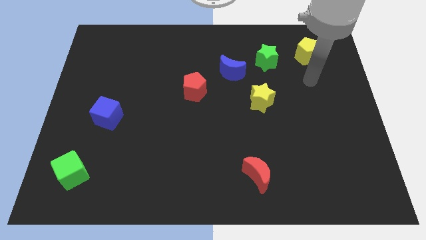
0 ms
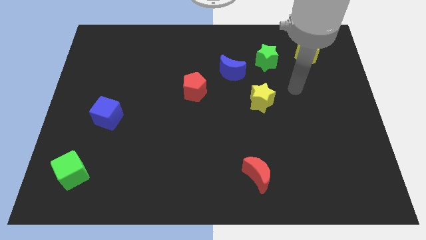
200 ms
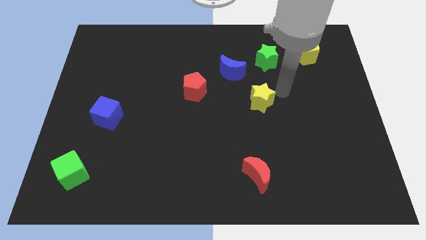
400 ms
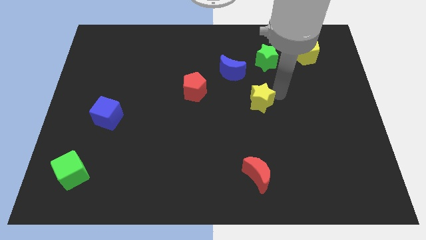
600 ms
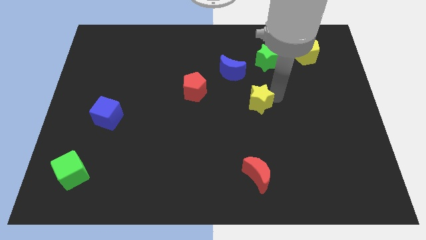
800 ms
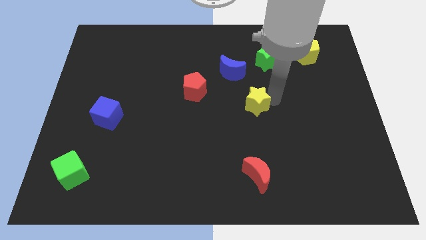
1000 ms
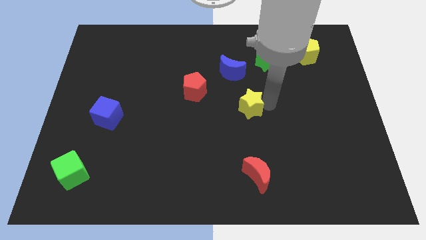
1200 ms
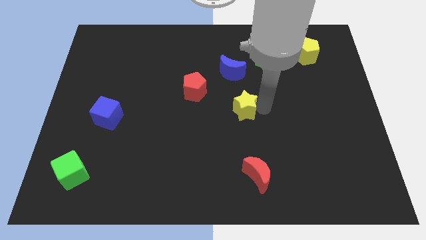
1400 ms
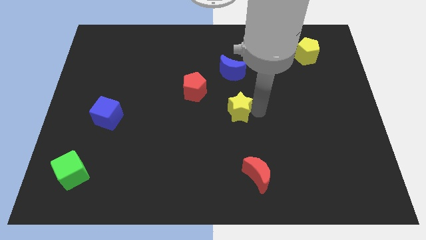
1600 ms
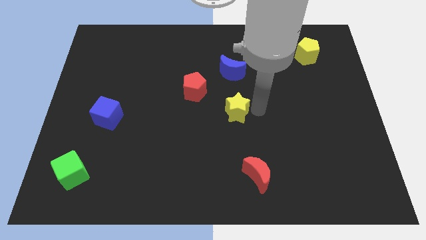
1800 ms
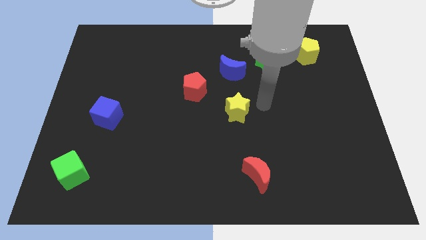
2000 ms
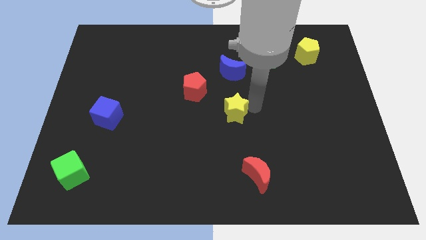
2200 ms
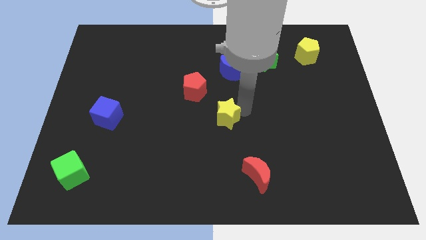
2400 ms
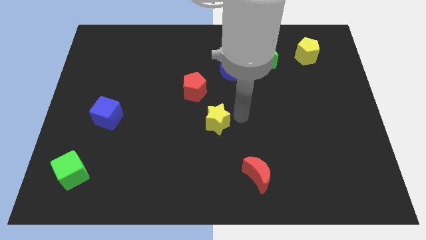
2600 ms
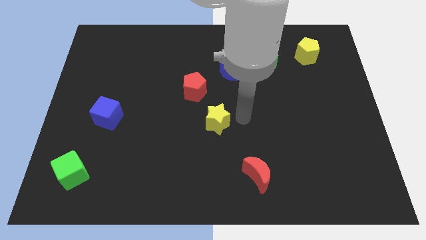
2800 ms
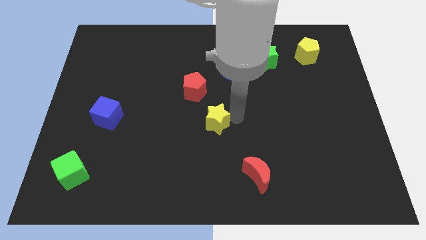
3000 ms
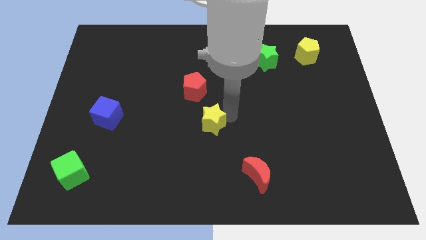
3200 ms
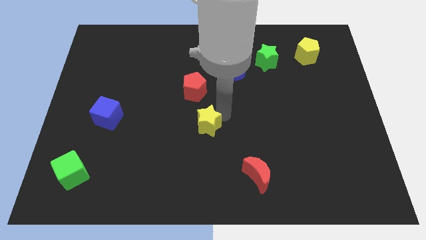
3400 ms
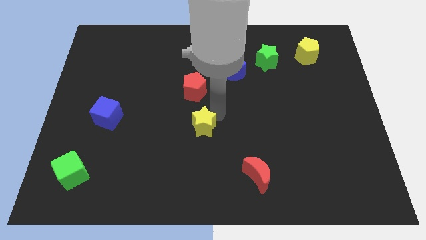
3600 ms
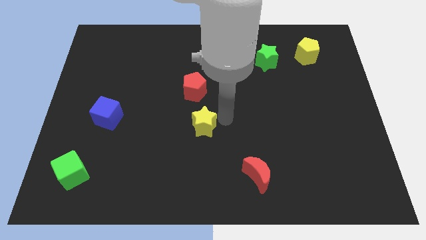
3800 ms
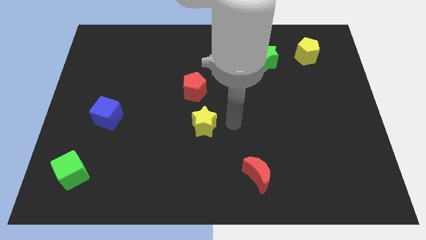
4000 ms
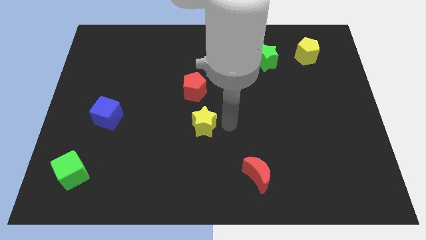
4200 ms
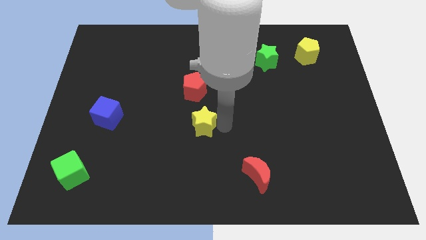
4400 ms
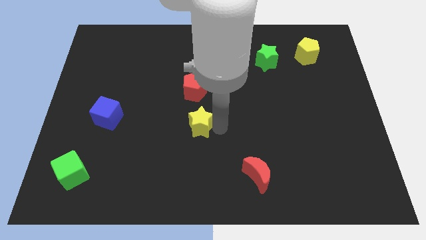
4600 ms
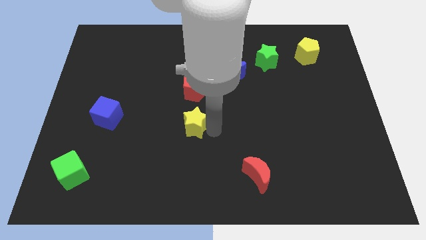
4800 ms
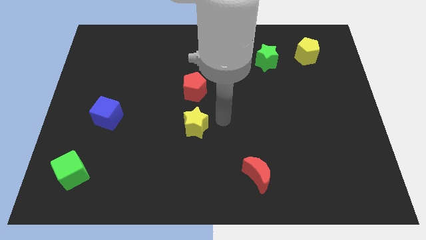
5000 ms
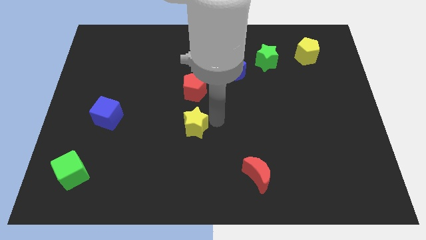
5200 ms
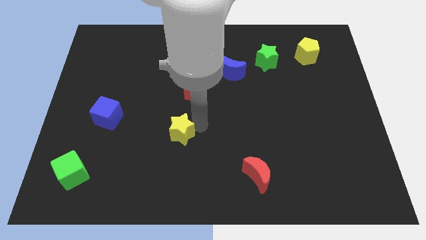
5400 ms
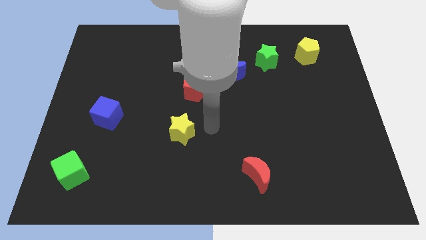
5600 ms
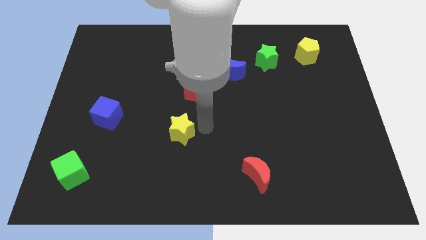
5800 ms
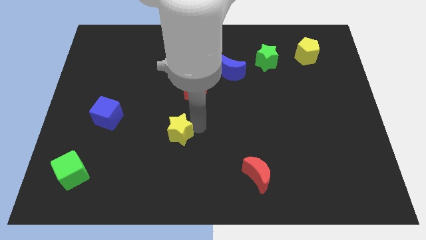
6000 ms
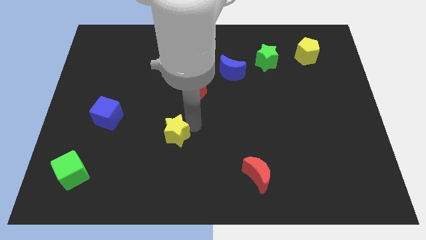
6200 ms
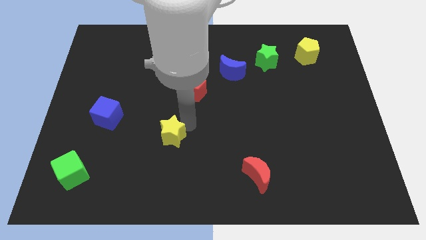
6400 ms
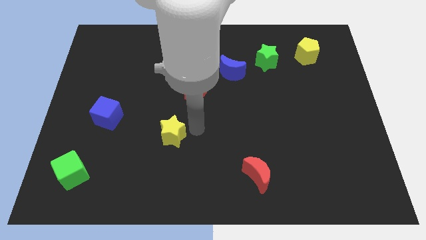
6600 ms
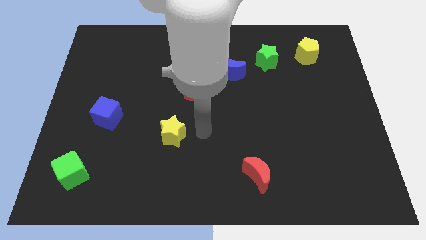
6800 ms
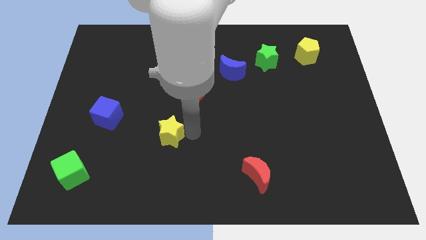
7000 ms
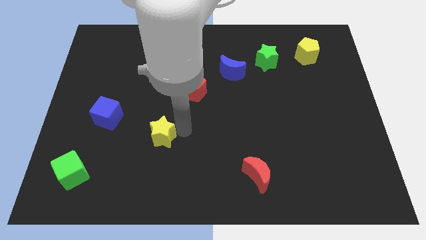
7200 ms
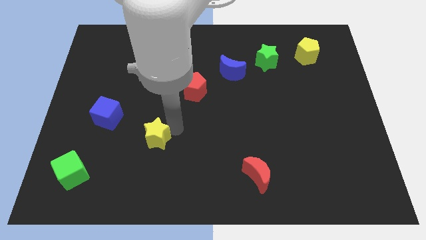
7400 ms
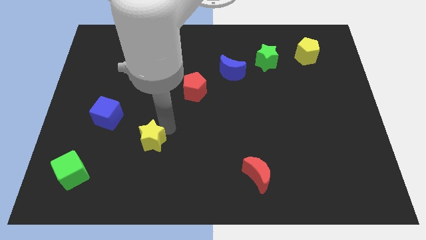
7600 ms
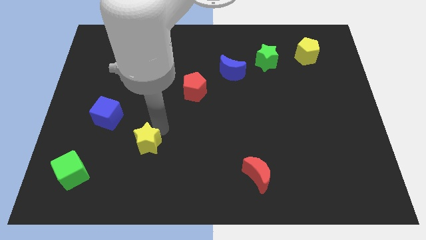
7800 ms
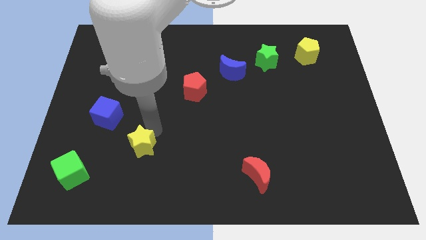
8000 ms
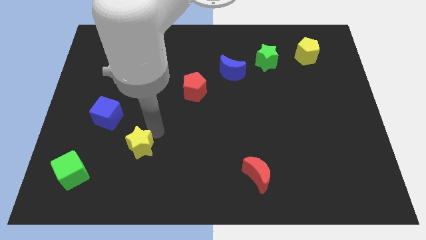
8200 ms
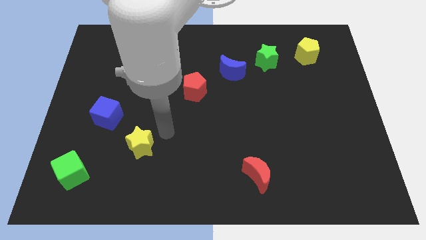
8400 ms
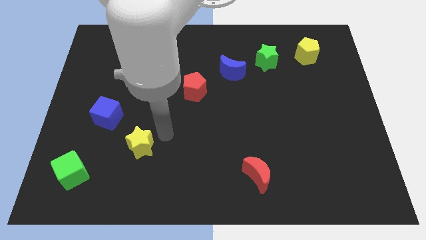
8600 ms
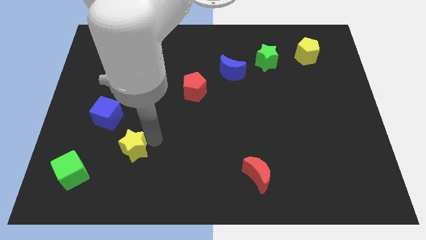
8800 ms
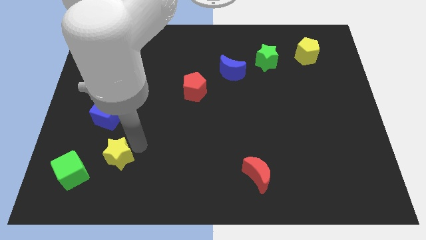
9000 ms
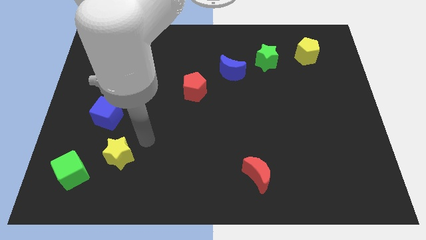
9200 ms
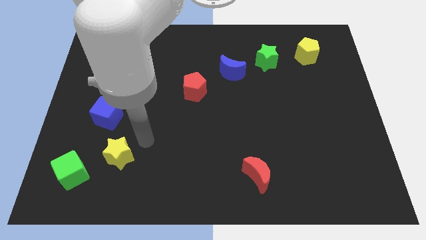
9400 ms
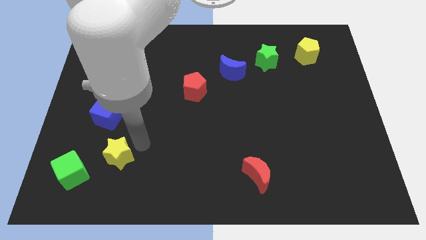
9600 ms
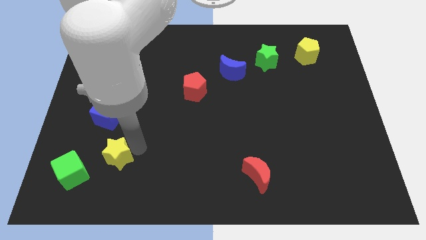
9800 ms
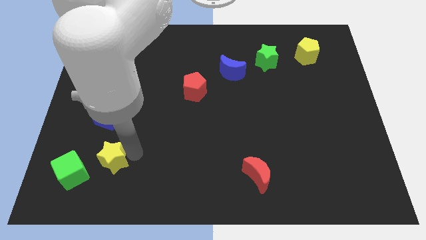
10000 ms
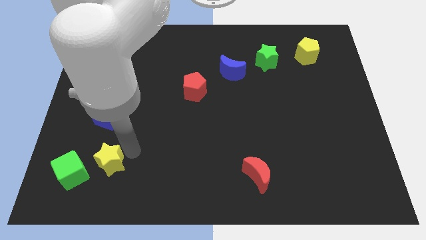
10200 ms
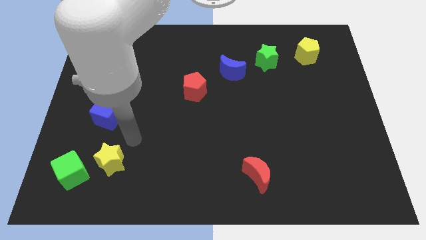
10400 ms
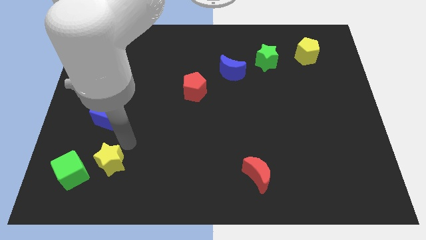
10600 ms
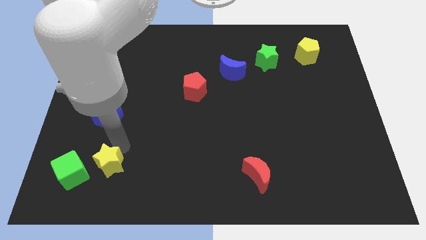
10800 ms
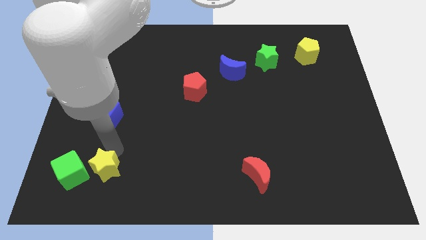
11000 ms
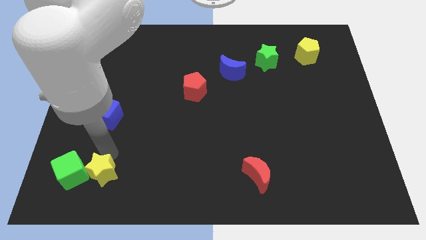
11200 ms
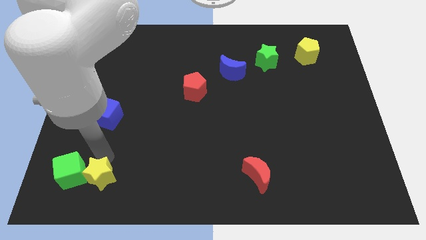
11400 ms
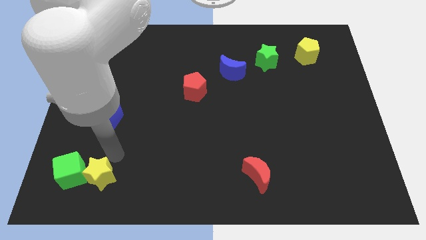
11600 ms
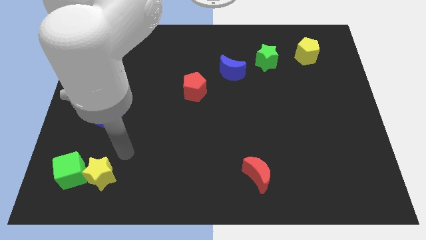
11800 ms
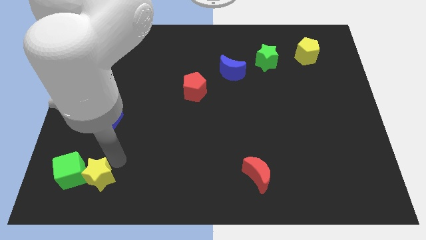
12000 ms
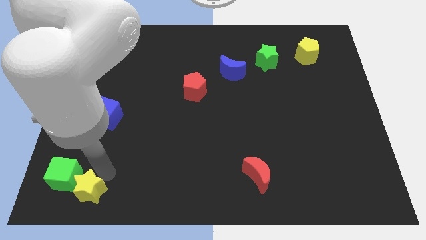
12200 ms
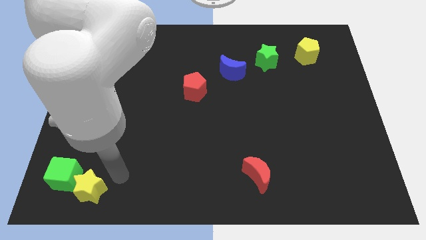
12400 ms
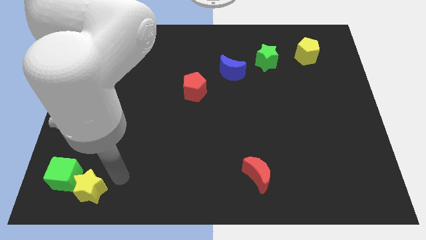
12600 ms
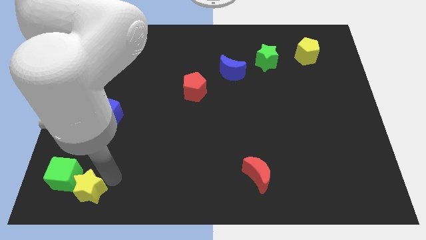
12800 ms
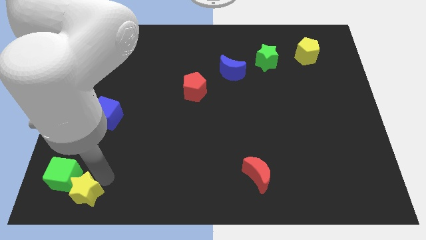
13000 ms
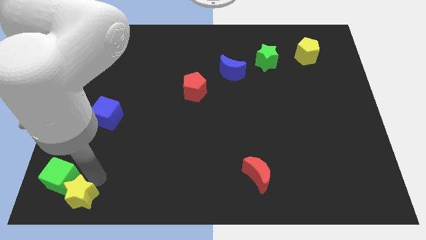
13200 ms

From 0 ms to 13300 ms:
move the yellow star to the bottom left of the board
